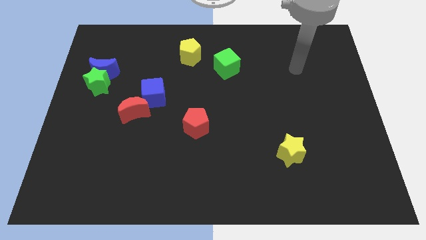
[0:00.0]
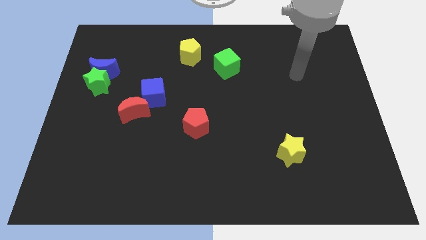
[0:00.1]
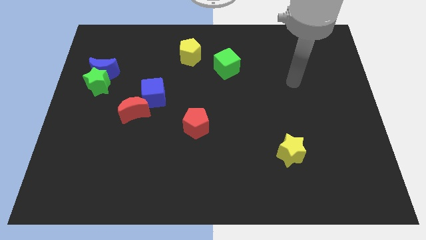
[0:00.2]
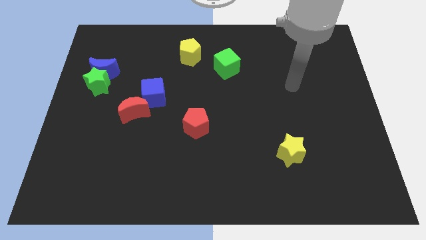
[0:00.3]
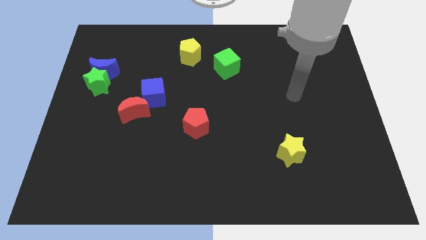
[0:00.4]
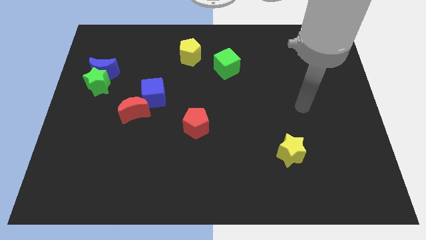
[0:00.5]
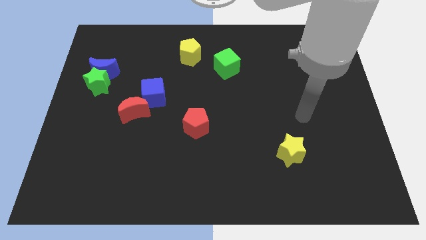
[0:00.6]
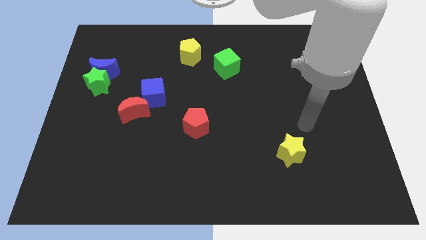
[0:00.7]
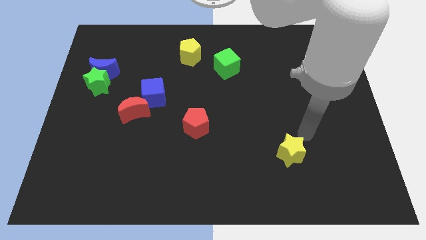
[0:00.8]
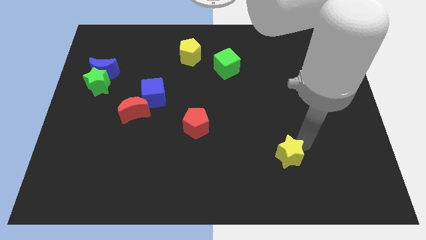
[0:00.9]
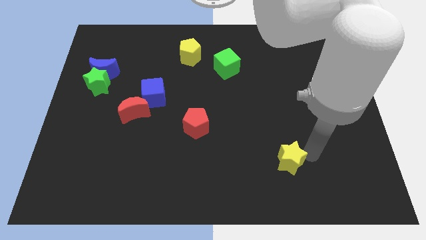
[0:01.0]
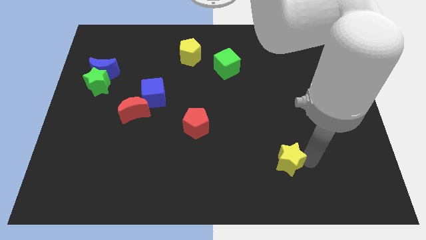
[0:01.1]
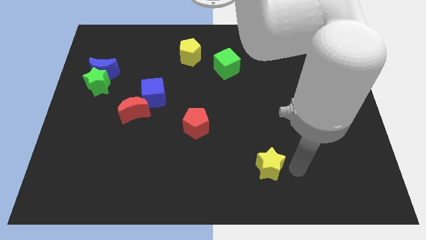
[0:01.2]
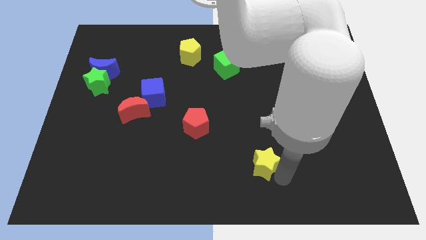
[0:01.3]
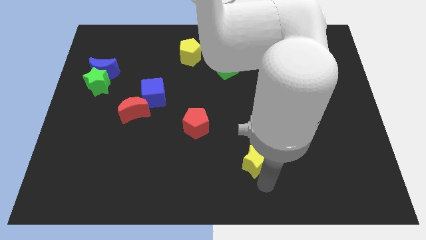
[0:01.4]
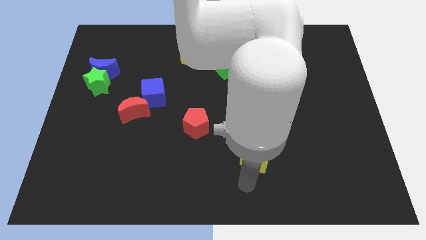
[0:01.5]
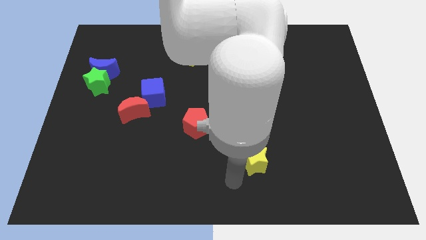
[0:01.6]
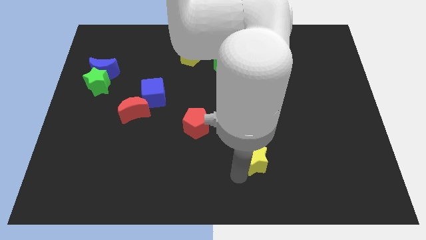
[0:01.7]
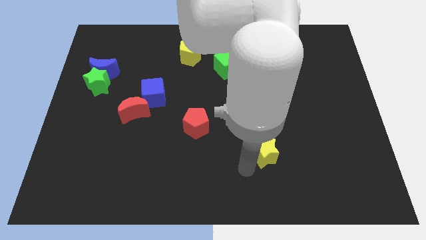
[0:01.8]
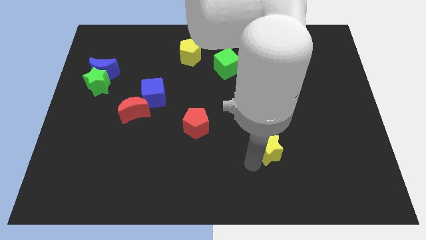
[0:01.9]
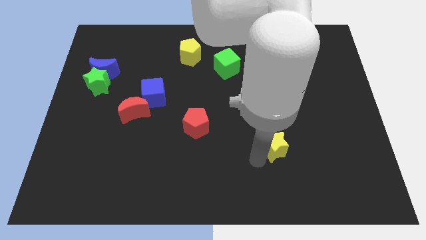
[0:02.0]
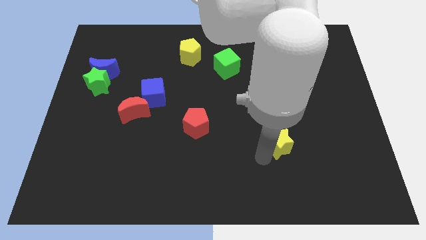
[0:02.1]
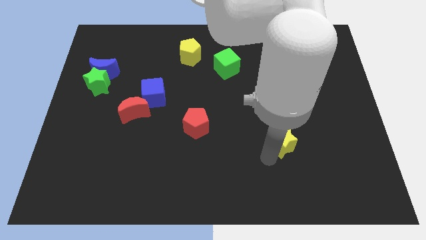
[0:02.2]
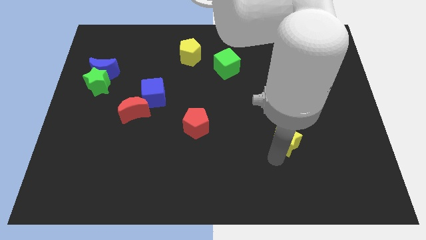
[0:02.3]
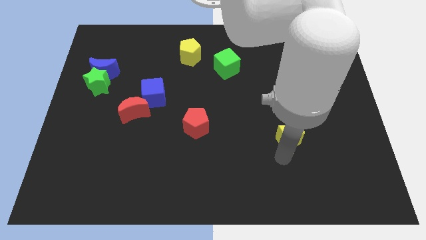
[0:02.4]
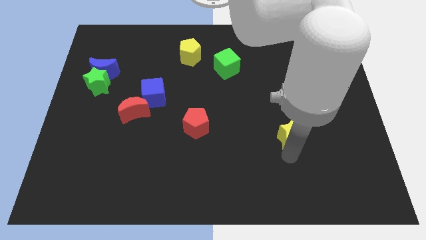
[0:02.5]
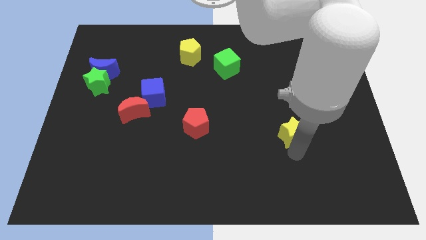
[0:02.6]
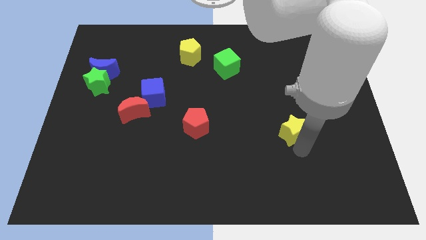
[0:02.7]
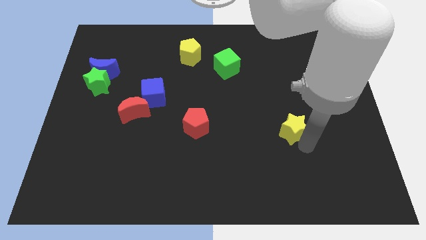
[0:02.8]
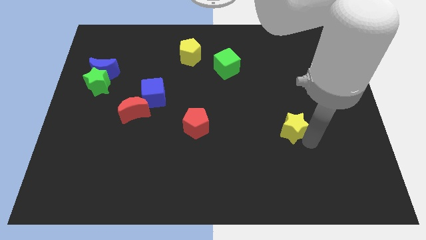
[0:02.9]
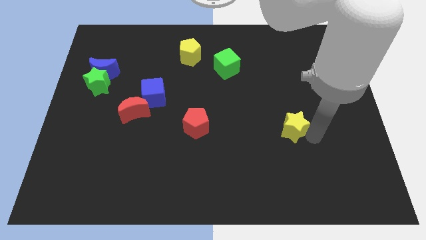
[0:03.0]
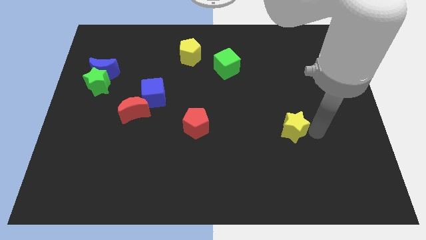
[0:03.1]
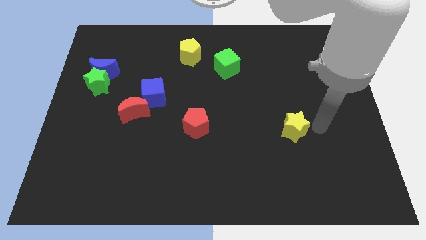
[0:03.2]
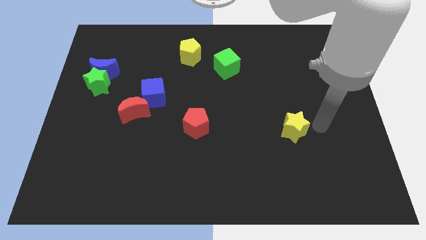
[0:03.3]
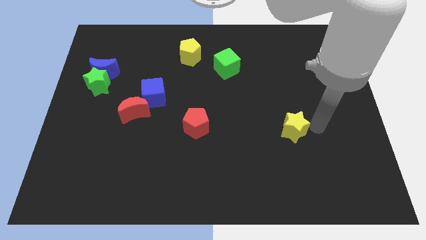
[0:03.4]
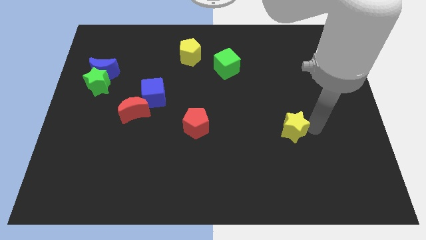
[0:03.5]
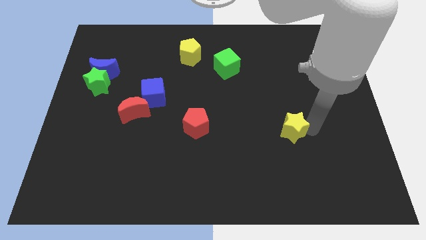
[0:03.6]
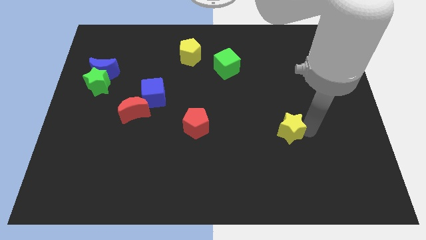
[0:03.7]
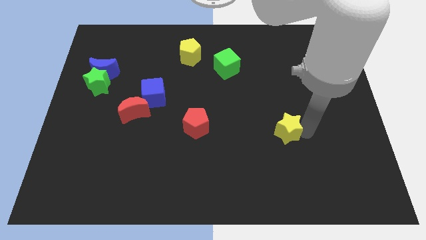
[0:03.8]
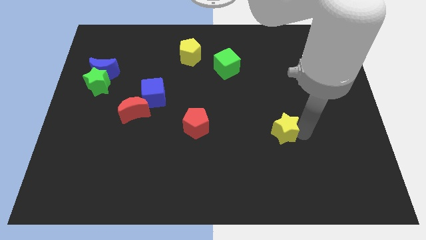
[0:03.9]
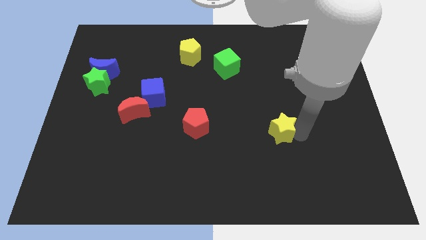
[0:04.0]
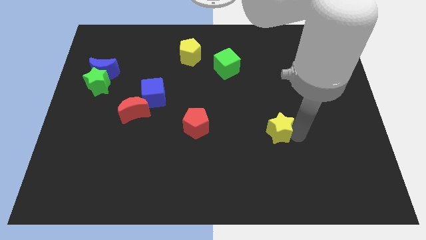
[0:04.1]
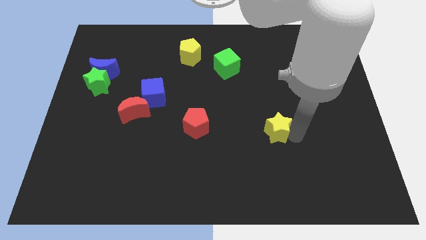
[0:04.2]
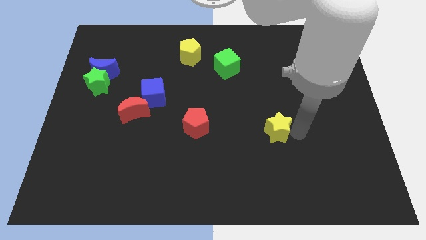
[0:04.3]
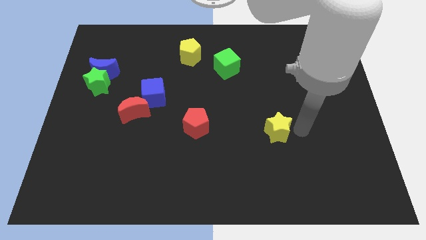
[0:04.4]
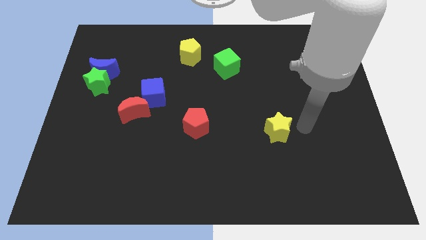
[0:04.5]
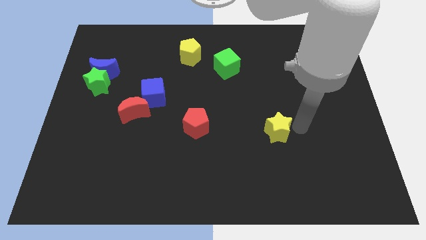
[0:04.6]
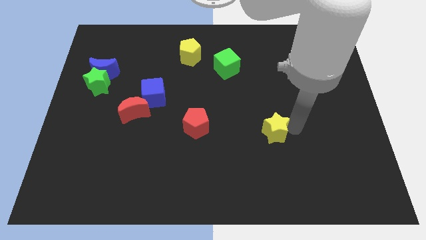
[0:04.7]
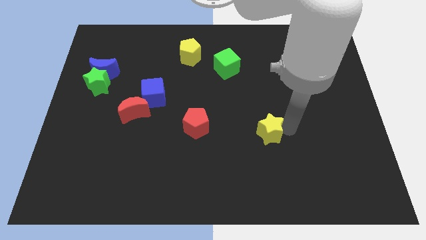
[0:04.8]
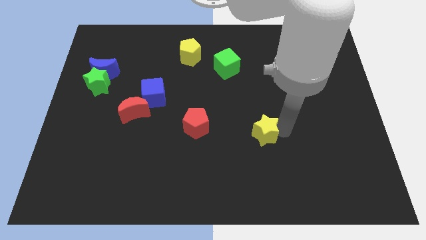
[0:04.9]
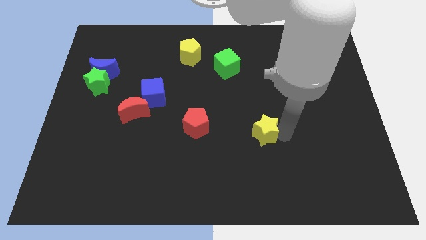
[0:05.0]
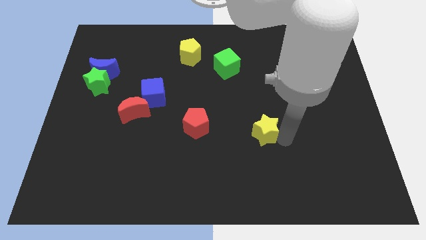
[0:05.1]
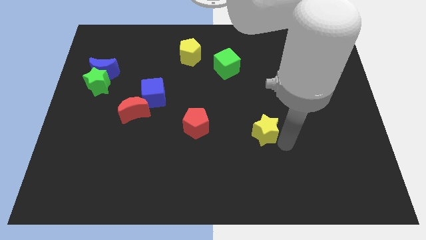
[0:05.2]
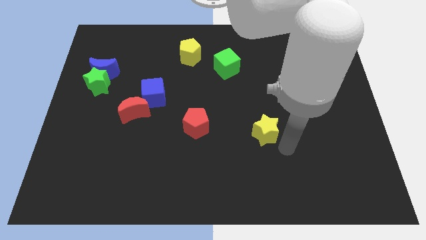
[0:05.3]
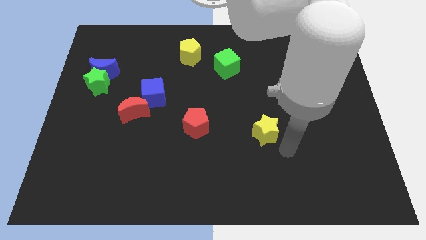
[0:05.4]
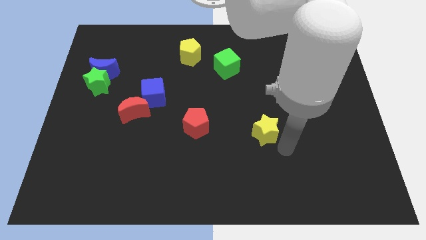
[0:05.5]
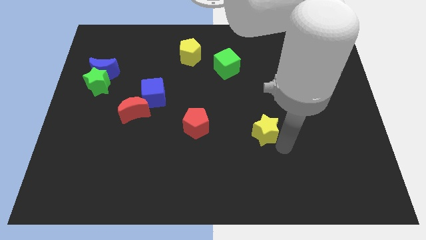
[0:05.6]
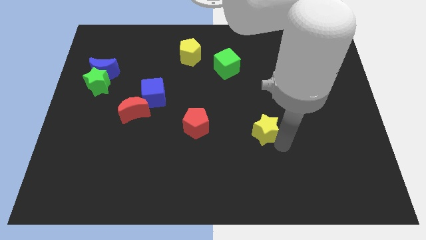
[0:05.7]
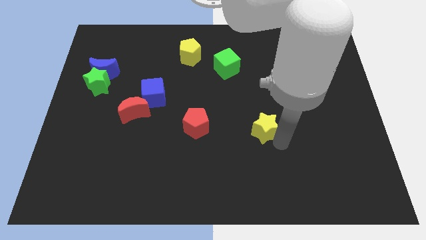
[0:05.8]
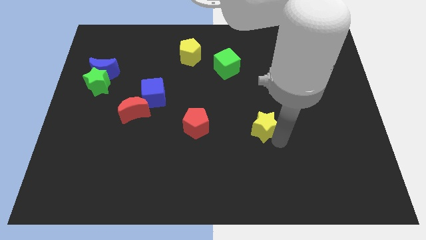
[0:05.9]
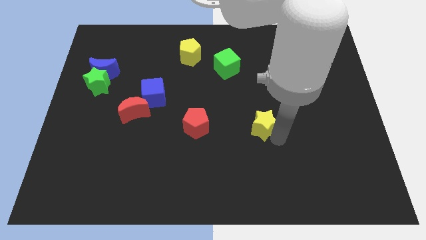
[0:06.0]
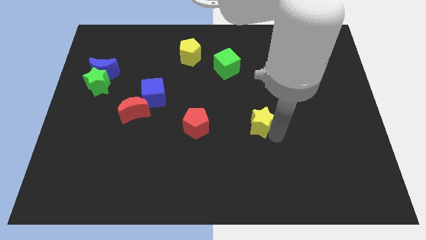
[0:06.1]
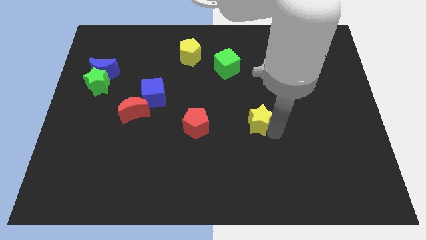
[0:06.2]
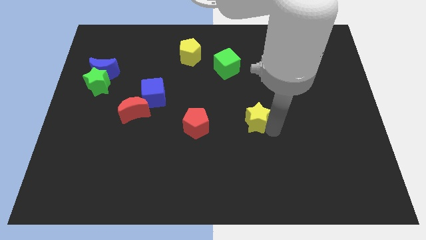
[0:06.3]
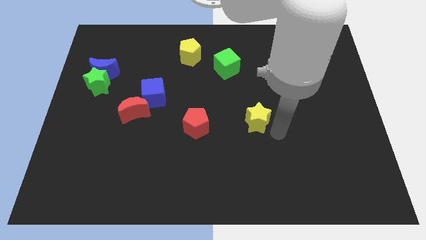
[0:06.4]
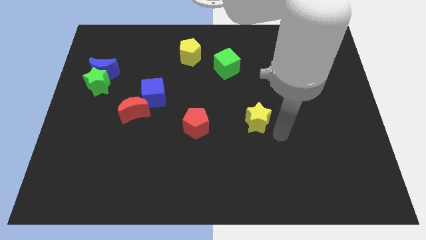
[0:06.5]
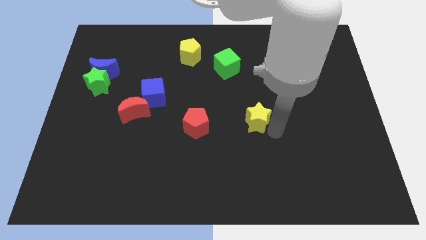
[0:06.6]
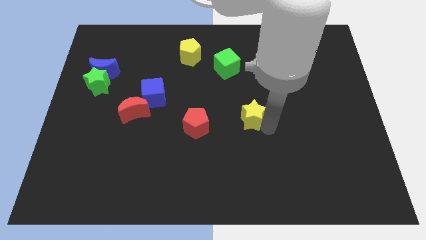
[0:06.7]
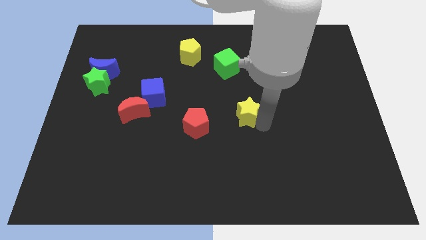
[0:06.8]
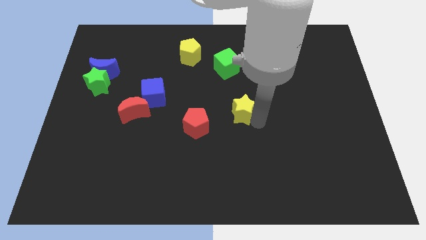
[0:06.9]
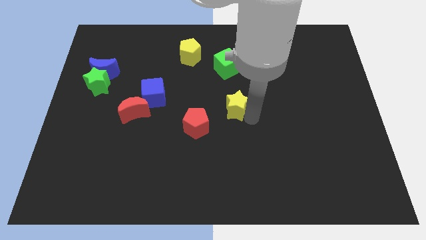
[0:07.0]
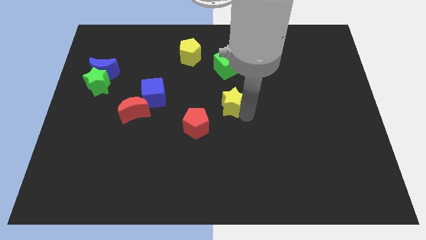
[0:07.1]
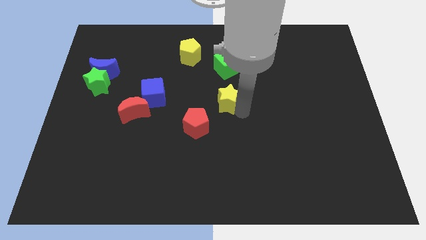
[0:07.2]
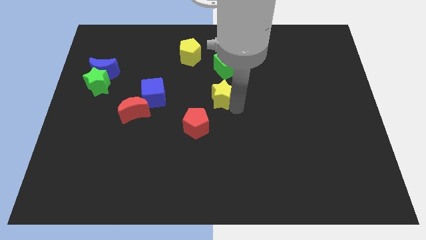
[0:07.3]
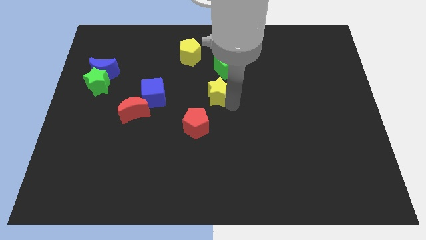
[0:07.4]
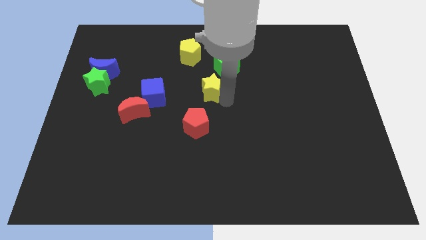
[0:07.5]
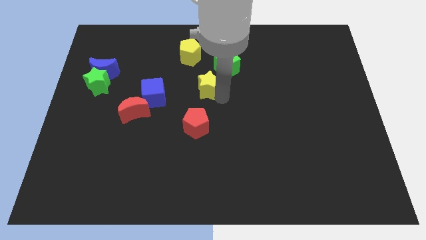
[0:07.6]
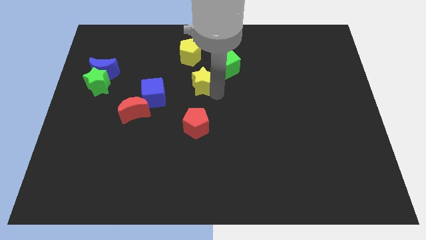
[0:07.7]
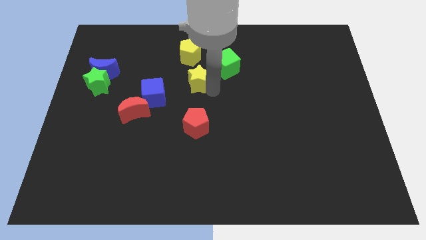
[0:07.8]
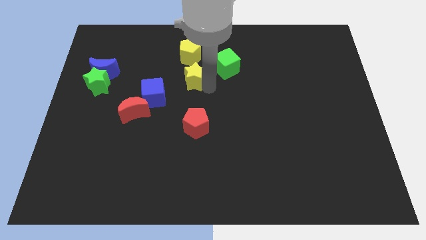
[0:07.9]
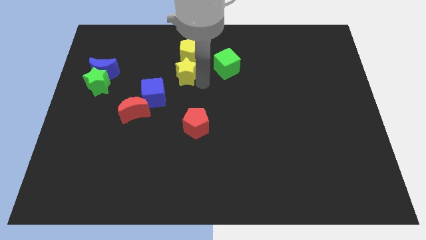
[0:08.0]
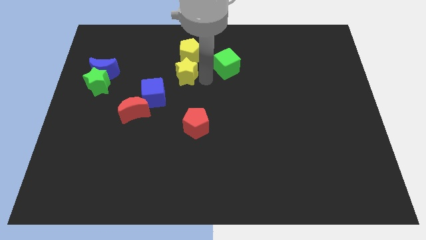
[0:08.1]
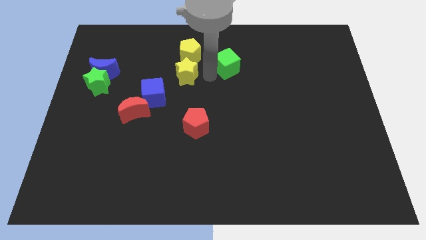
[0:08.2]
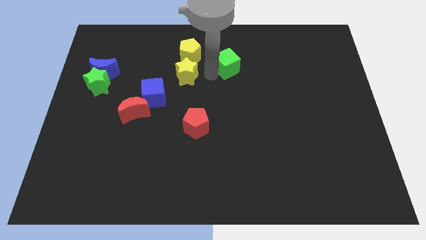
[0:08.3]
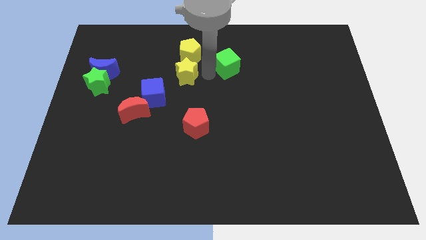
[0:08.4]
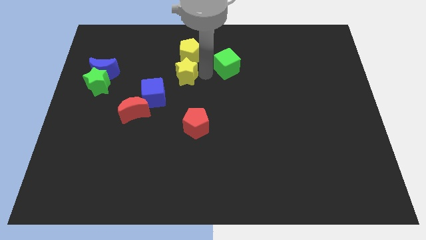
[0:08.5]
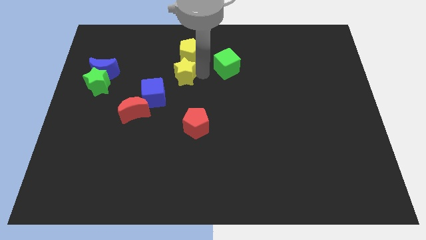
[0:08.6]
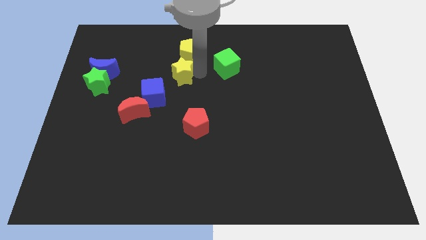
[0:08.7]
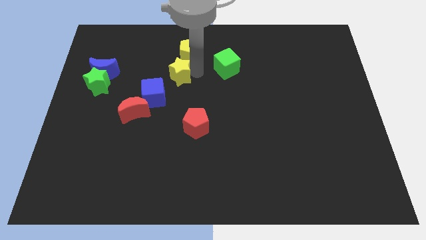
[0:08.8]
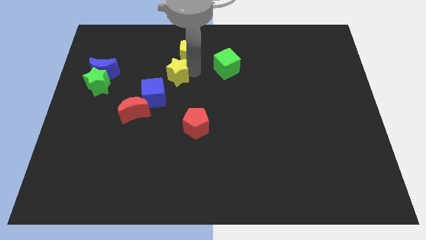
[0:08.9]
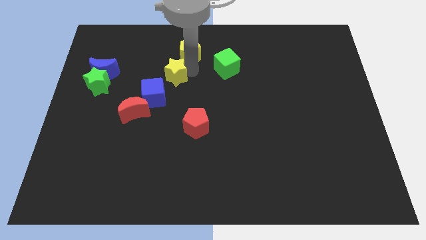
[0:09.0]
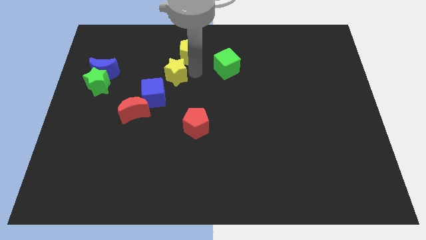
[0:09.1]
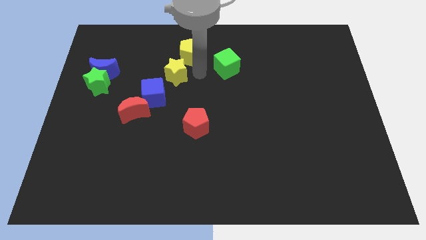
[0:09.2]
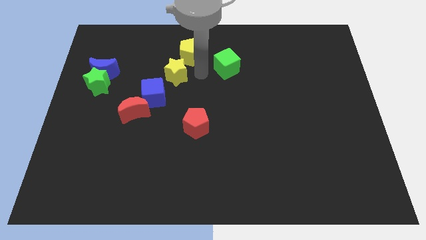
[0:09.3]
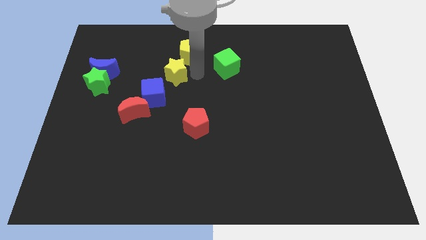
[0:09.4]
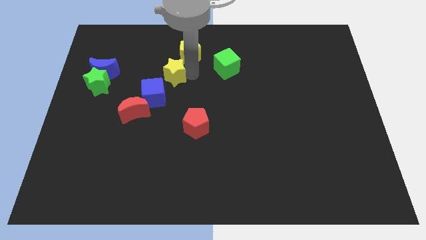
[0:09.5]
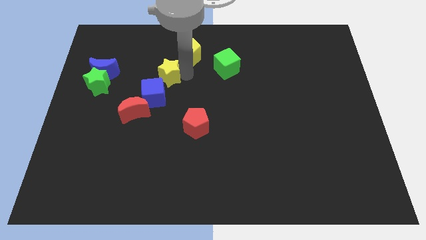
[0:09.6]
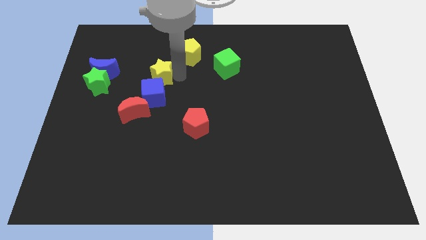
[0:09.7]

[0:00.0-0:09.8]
slide the yellow star to the right of the blue moon
